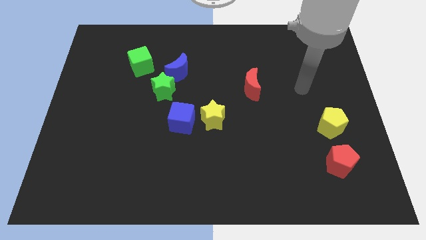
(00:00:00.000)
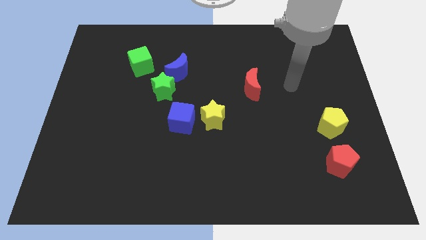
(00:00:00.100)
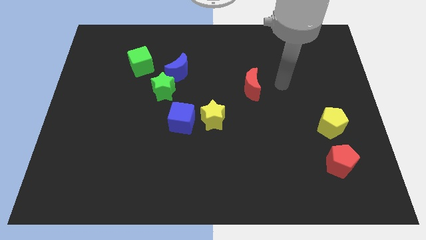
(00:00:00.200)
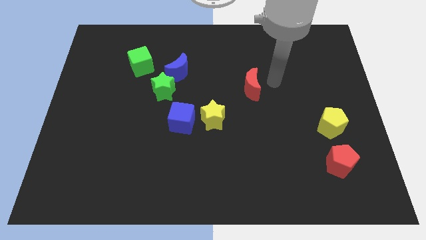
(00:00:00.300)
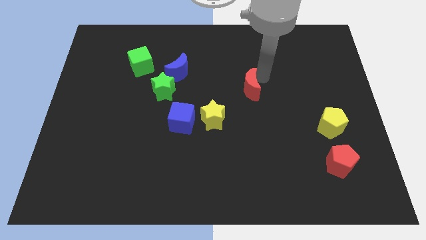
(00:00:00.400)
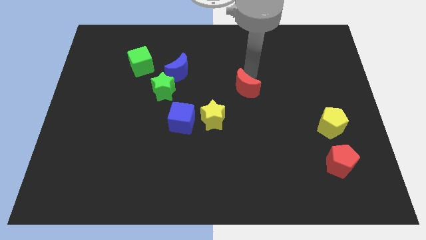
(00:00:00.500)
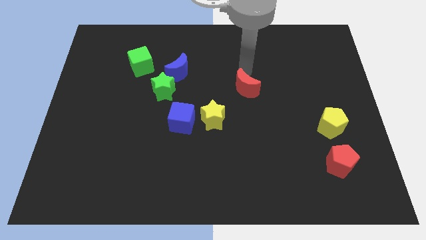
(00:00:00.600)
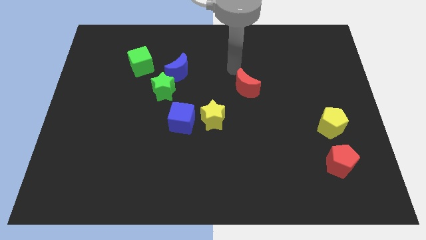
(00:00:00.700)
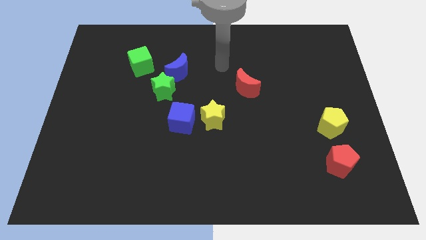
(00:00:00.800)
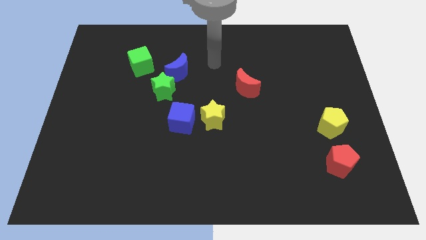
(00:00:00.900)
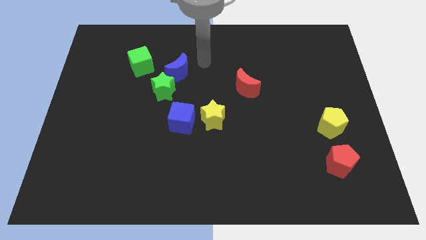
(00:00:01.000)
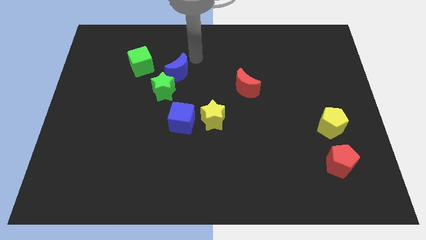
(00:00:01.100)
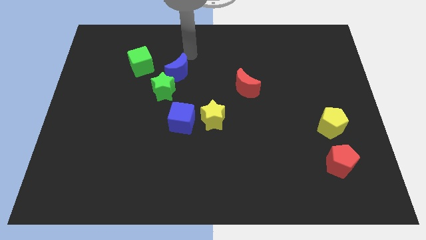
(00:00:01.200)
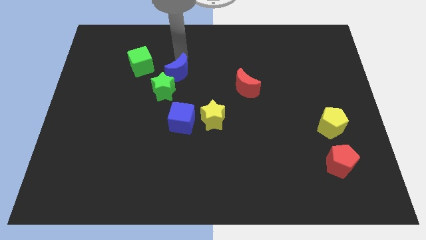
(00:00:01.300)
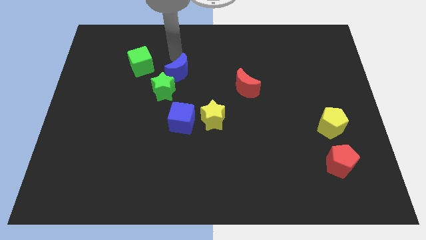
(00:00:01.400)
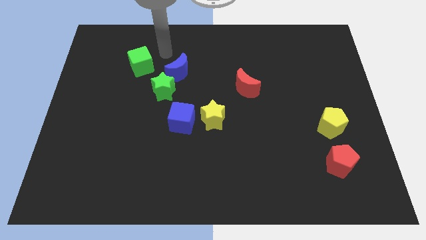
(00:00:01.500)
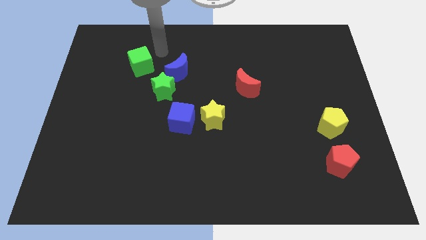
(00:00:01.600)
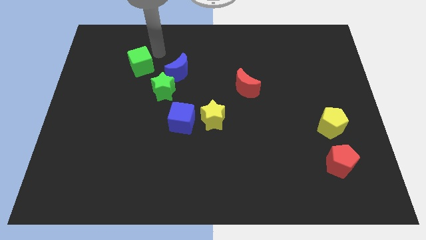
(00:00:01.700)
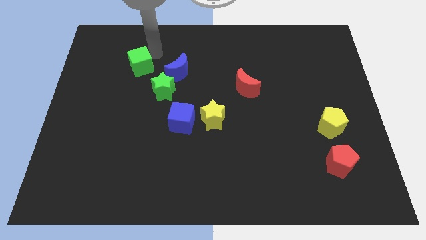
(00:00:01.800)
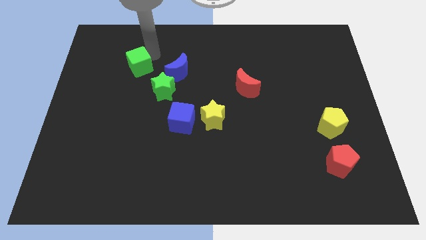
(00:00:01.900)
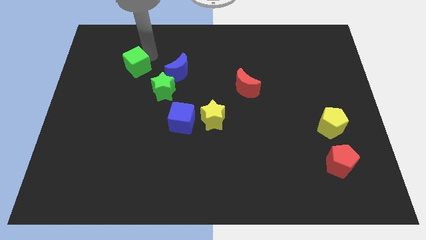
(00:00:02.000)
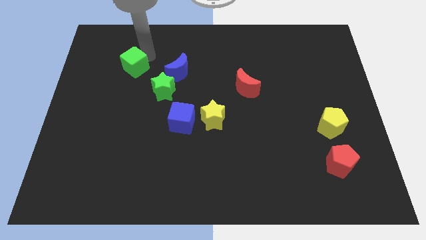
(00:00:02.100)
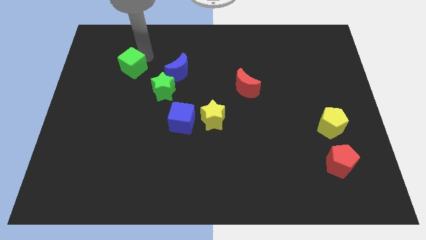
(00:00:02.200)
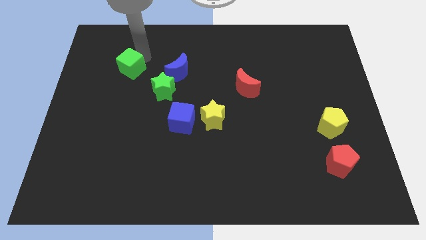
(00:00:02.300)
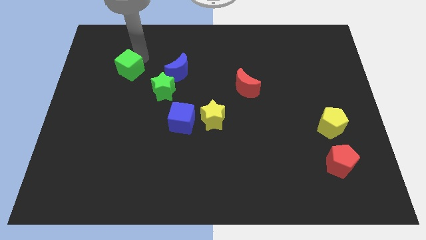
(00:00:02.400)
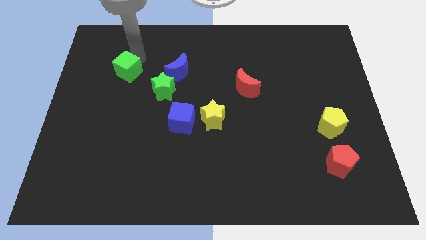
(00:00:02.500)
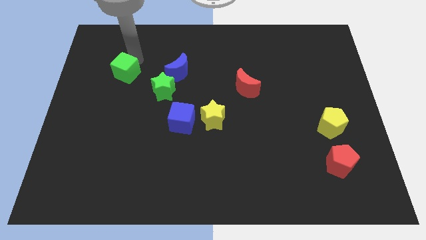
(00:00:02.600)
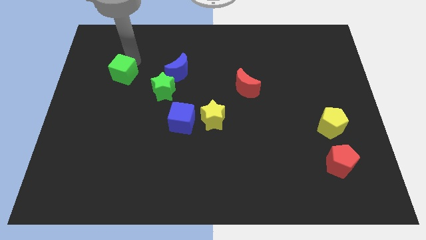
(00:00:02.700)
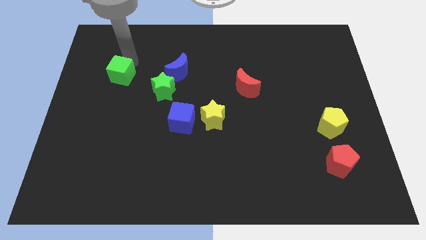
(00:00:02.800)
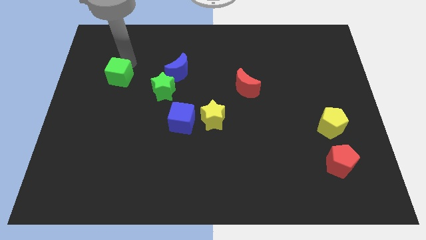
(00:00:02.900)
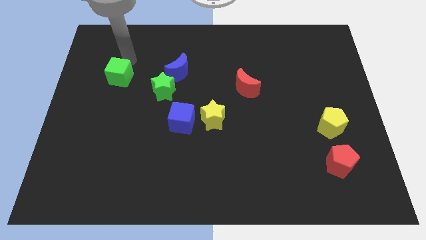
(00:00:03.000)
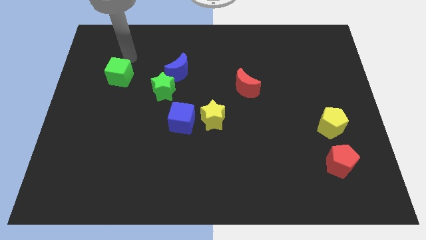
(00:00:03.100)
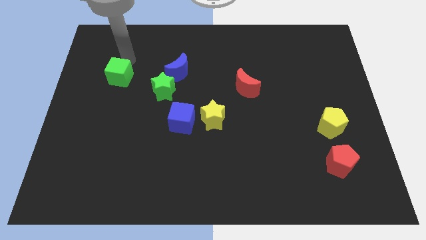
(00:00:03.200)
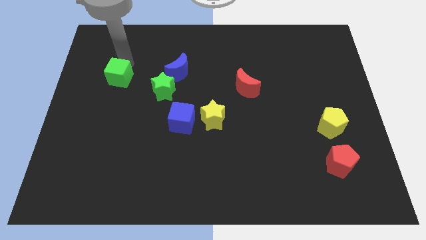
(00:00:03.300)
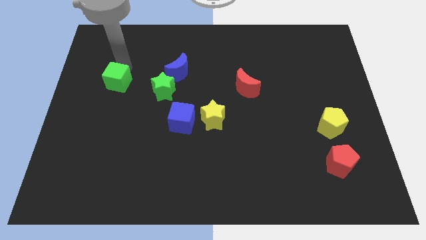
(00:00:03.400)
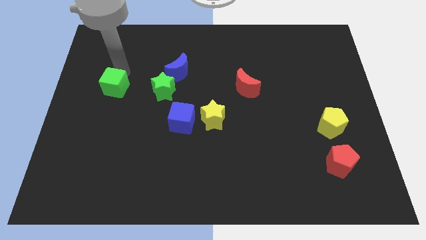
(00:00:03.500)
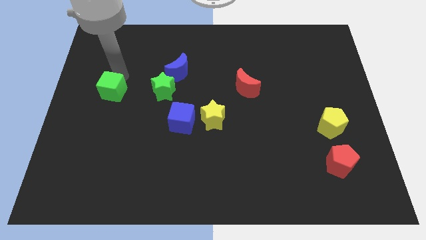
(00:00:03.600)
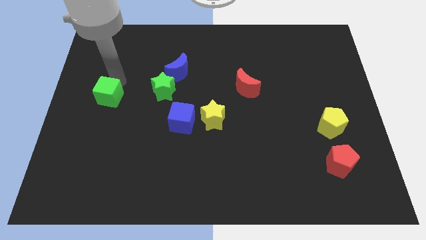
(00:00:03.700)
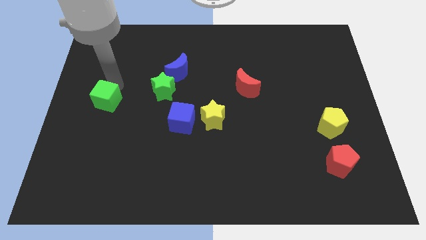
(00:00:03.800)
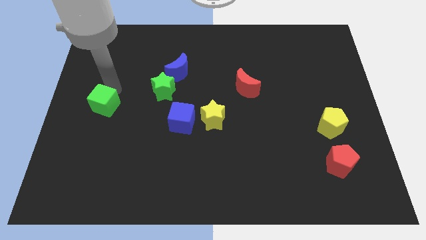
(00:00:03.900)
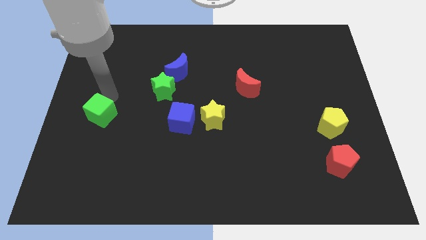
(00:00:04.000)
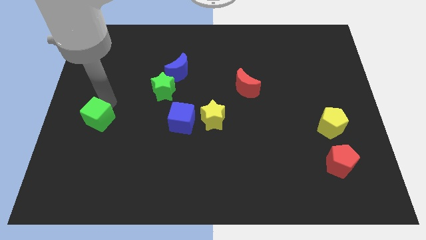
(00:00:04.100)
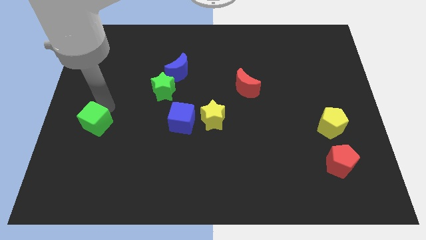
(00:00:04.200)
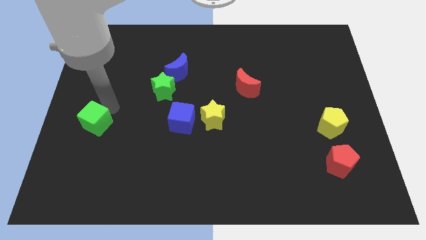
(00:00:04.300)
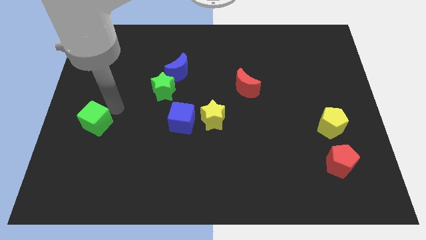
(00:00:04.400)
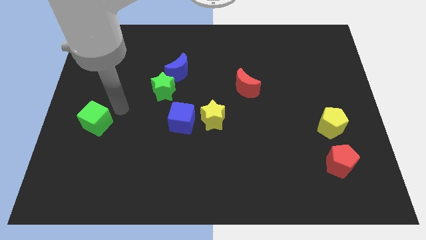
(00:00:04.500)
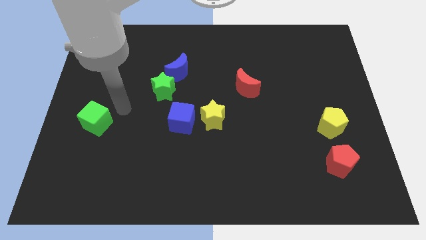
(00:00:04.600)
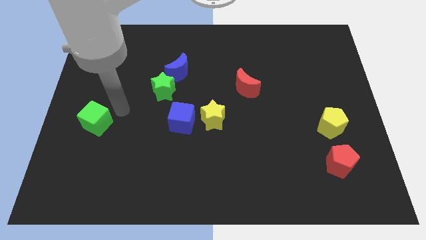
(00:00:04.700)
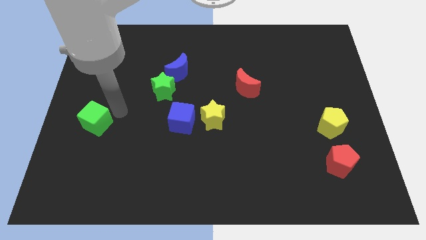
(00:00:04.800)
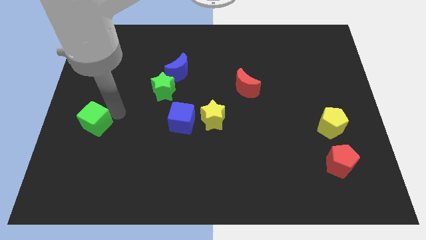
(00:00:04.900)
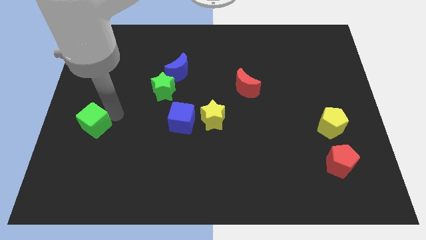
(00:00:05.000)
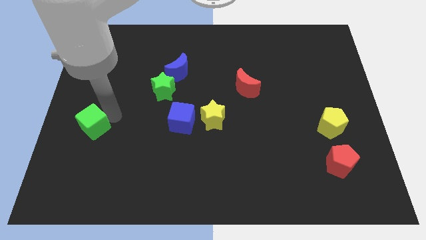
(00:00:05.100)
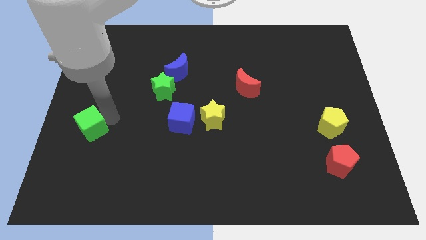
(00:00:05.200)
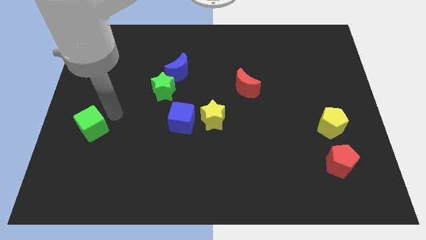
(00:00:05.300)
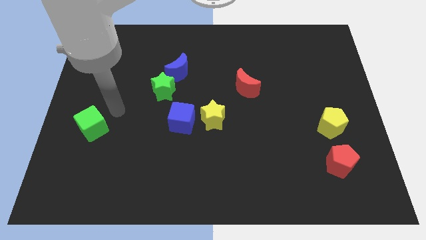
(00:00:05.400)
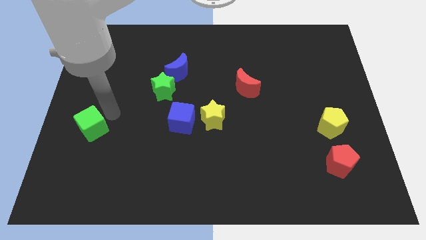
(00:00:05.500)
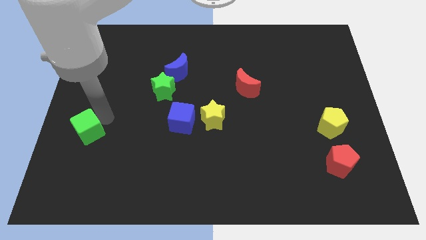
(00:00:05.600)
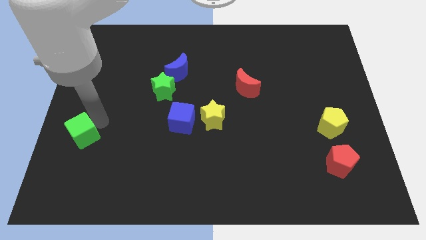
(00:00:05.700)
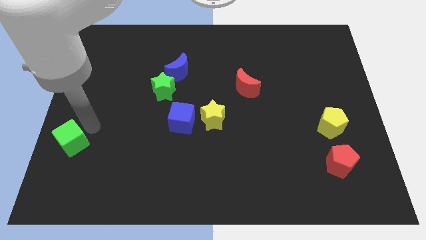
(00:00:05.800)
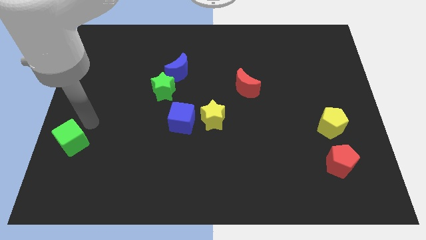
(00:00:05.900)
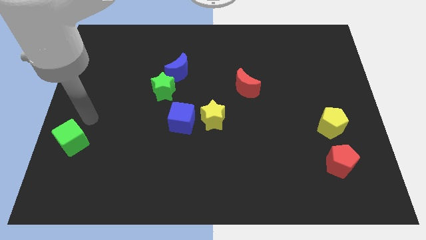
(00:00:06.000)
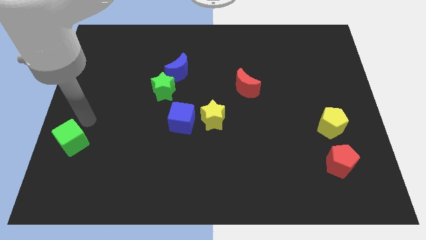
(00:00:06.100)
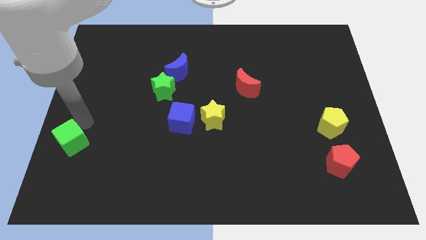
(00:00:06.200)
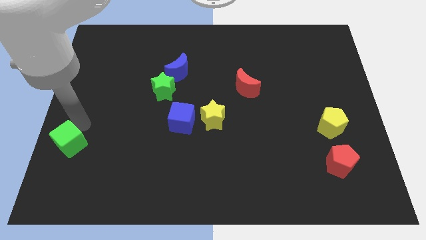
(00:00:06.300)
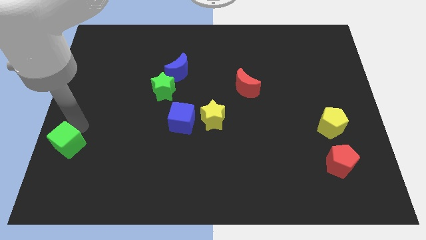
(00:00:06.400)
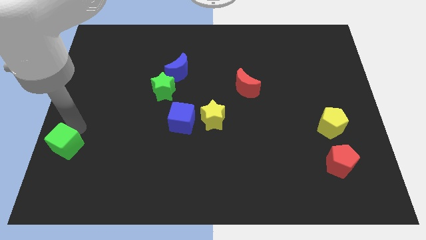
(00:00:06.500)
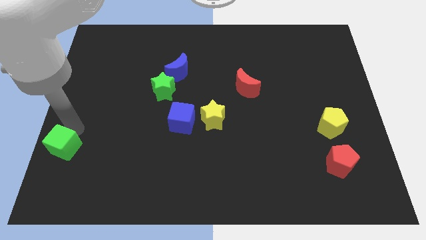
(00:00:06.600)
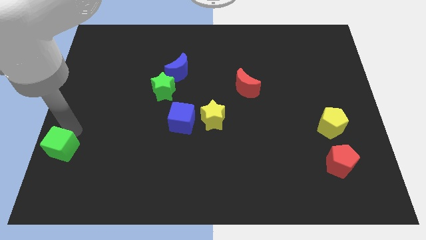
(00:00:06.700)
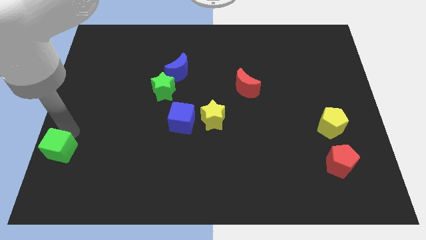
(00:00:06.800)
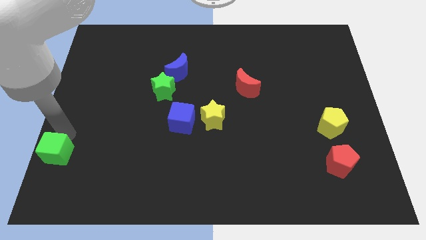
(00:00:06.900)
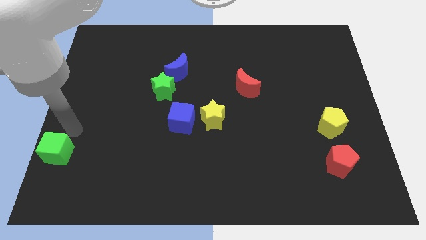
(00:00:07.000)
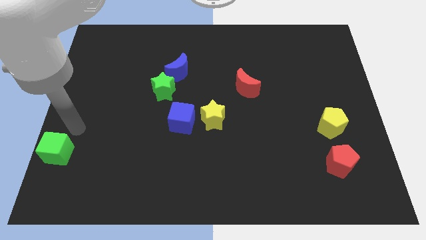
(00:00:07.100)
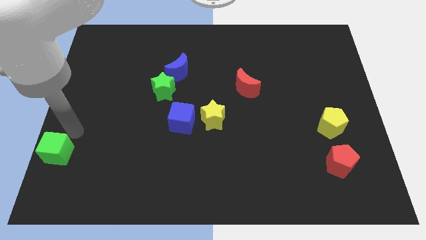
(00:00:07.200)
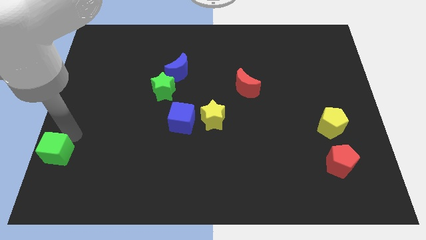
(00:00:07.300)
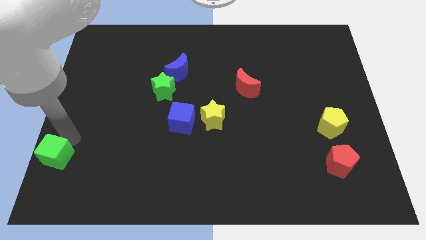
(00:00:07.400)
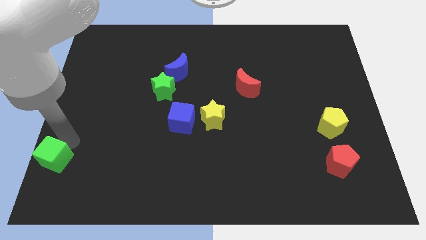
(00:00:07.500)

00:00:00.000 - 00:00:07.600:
put the green cube to the lower left corner
